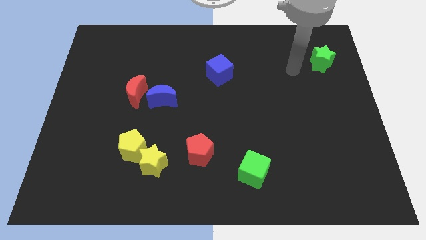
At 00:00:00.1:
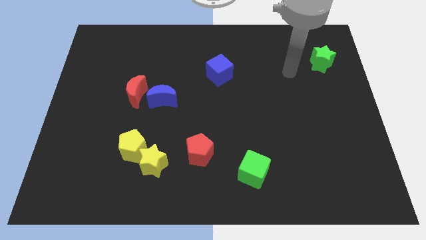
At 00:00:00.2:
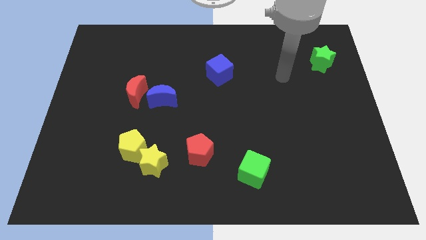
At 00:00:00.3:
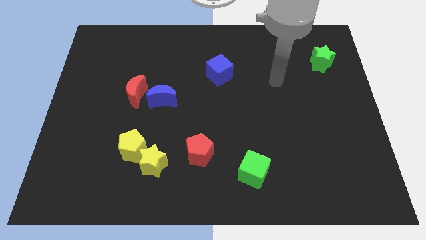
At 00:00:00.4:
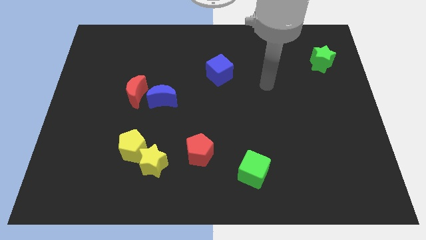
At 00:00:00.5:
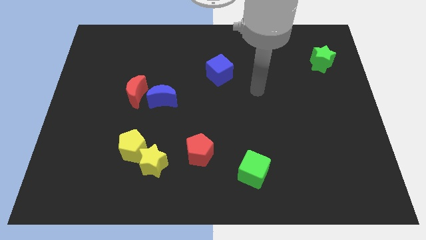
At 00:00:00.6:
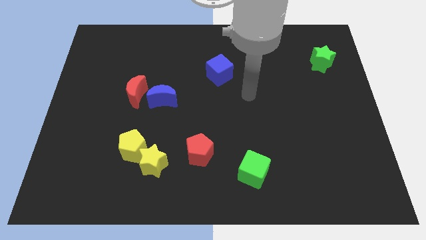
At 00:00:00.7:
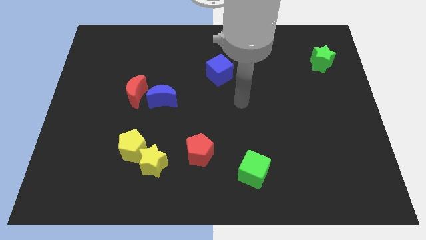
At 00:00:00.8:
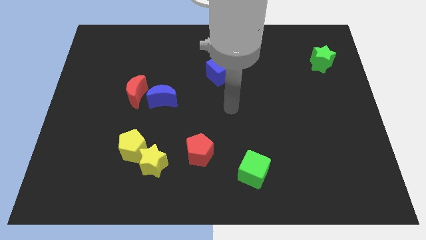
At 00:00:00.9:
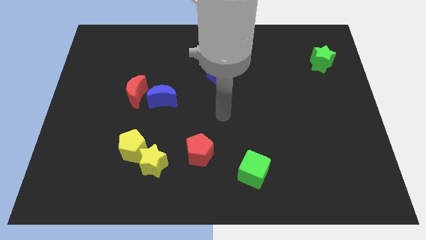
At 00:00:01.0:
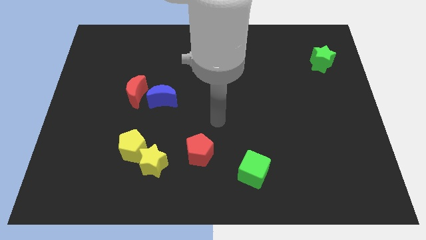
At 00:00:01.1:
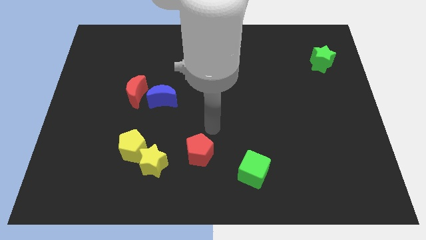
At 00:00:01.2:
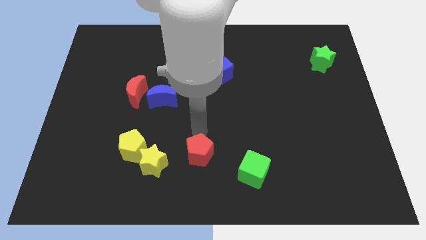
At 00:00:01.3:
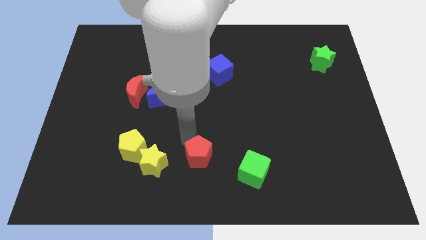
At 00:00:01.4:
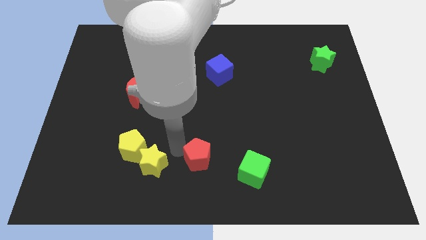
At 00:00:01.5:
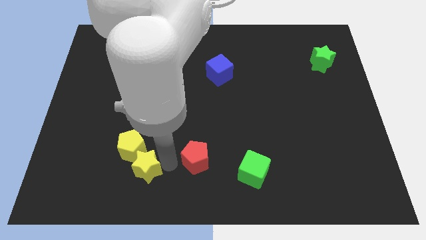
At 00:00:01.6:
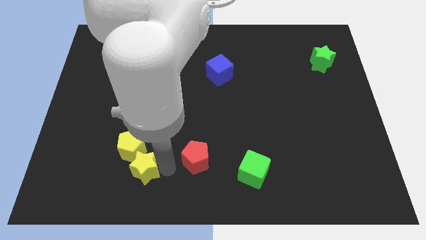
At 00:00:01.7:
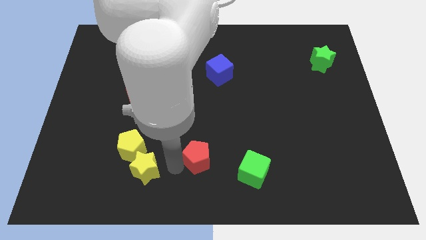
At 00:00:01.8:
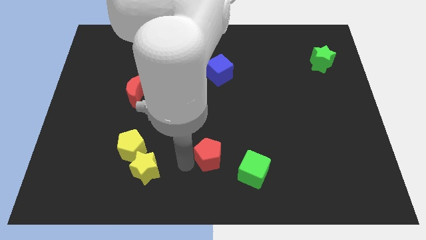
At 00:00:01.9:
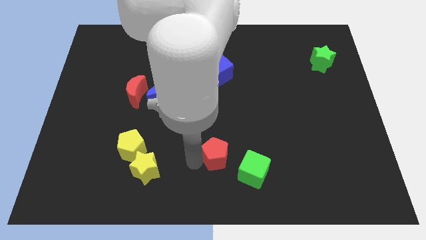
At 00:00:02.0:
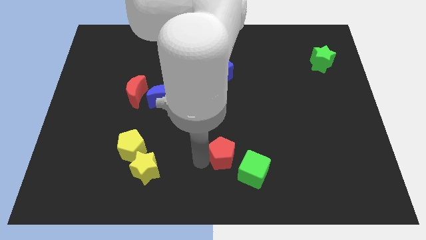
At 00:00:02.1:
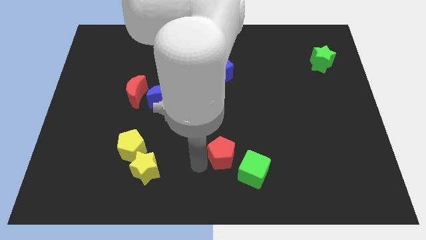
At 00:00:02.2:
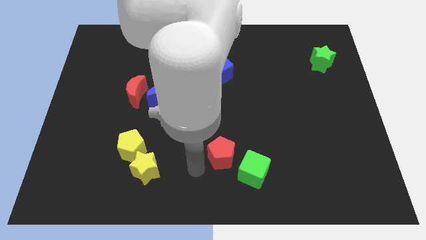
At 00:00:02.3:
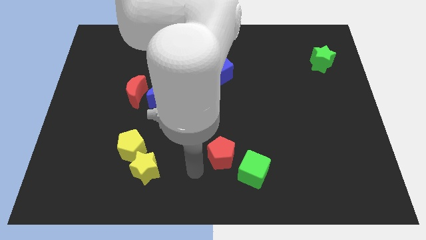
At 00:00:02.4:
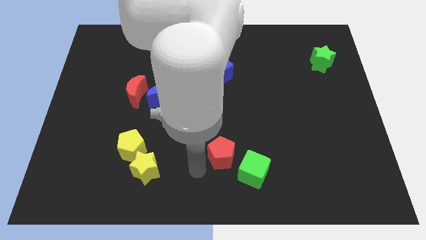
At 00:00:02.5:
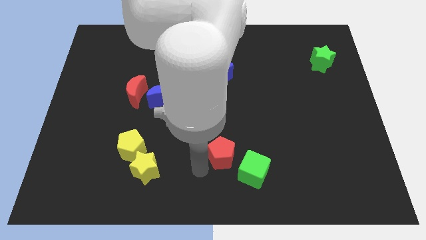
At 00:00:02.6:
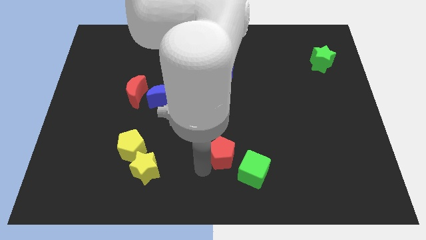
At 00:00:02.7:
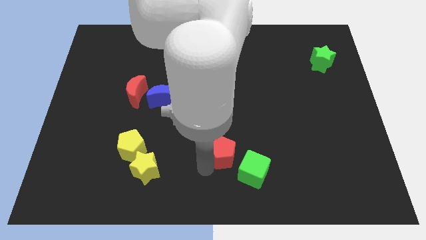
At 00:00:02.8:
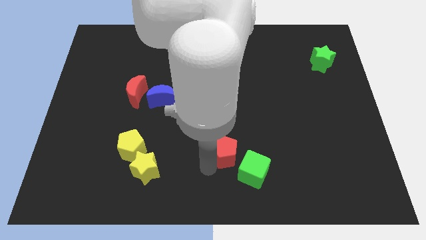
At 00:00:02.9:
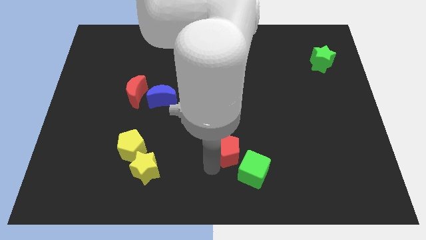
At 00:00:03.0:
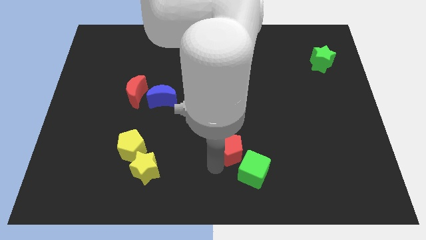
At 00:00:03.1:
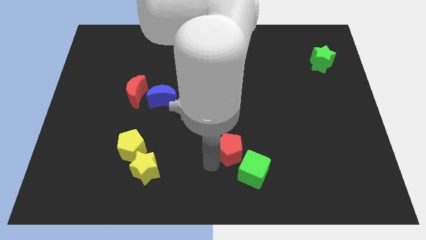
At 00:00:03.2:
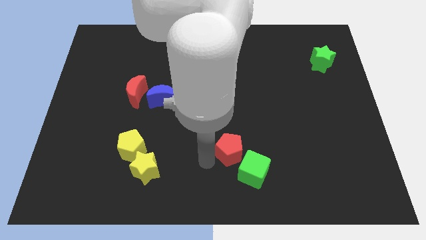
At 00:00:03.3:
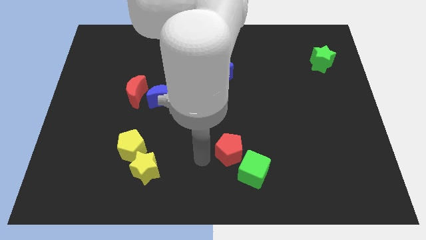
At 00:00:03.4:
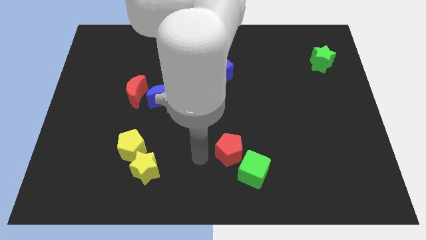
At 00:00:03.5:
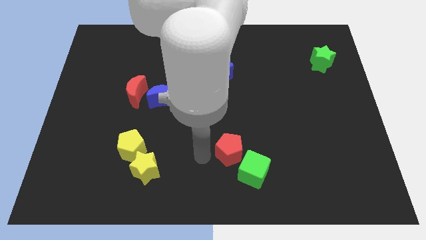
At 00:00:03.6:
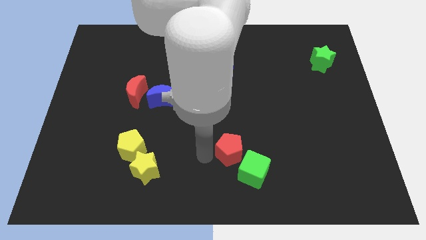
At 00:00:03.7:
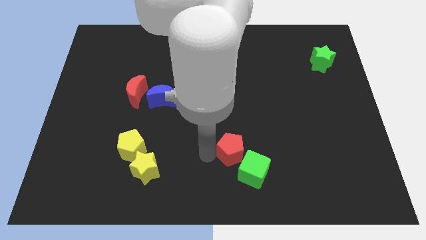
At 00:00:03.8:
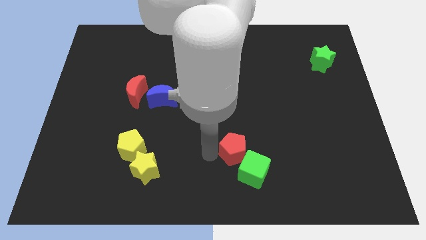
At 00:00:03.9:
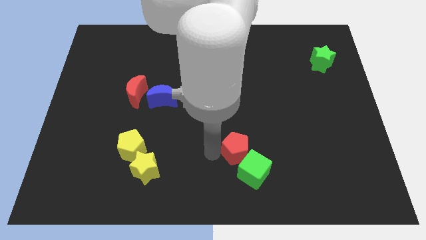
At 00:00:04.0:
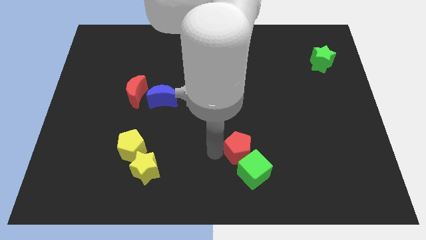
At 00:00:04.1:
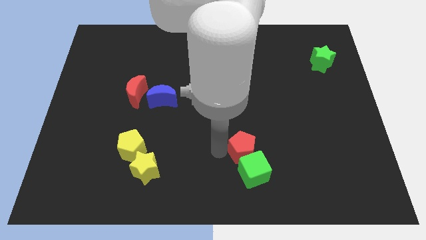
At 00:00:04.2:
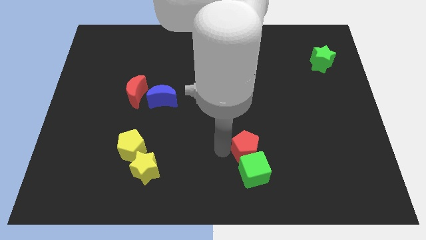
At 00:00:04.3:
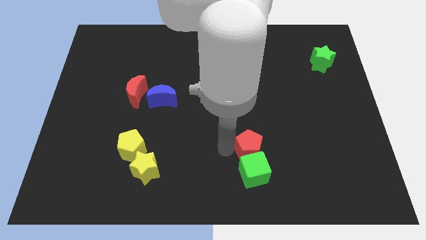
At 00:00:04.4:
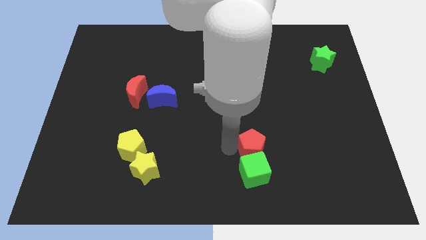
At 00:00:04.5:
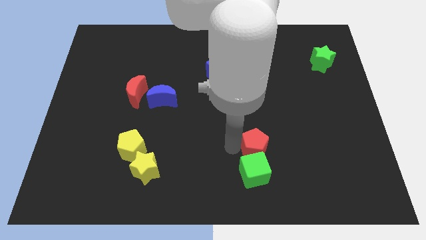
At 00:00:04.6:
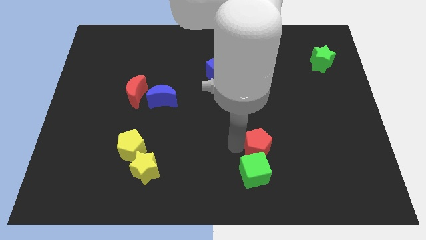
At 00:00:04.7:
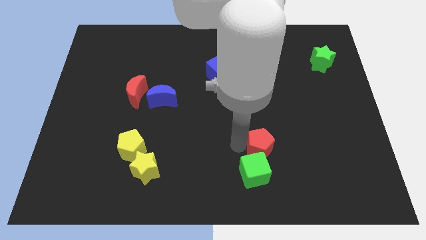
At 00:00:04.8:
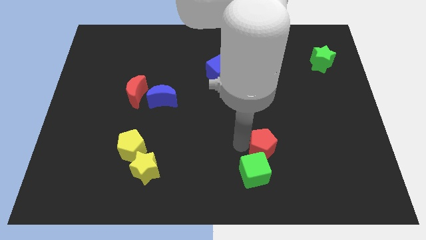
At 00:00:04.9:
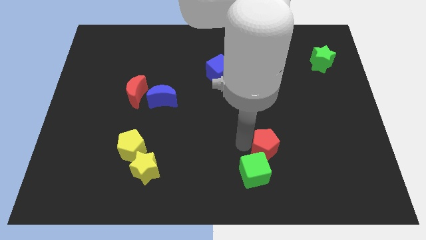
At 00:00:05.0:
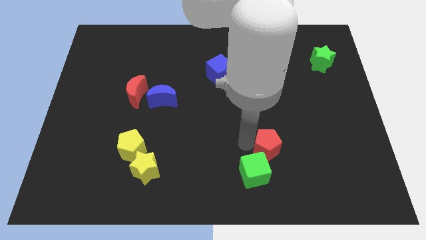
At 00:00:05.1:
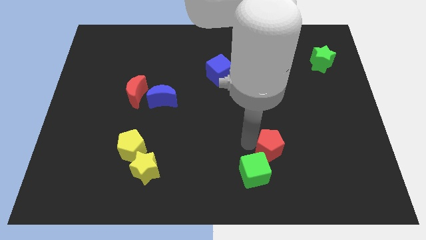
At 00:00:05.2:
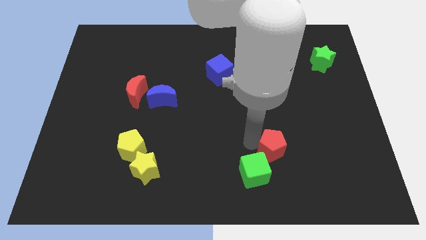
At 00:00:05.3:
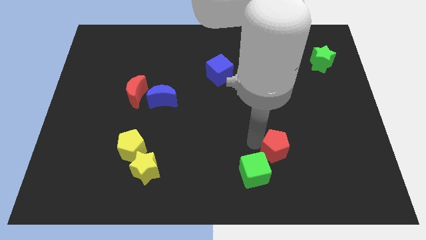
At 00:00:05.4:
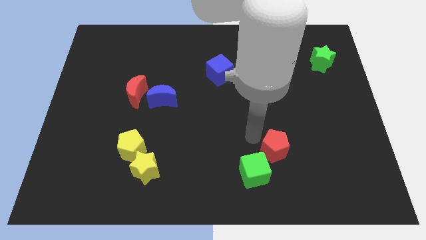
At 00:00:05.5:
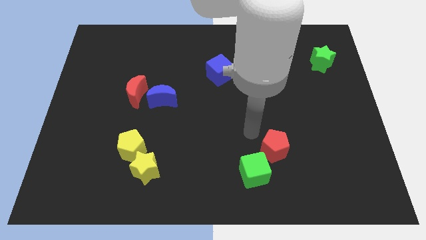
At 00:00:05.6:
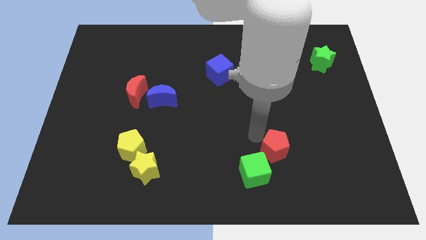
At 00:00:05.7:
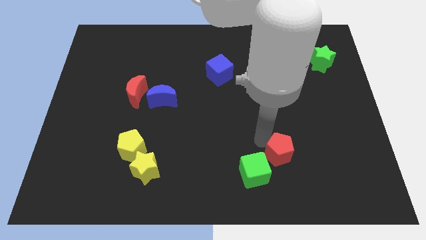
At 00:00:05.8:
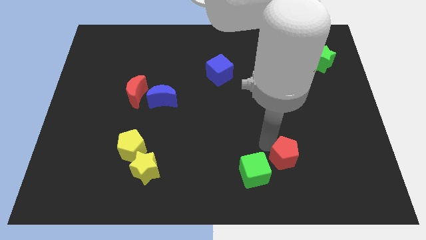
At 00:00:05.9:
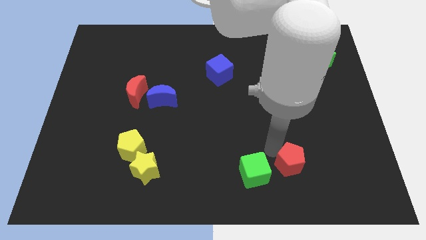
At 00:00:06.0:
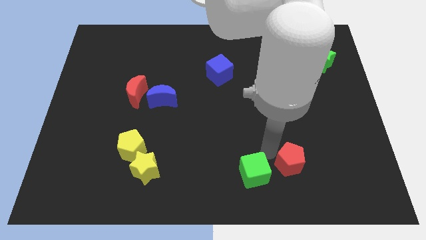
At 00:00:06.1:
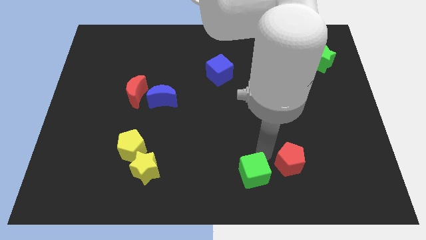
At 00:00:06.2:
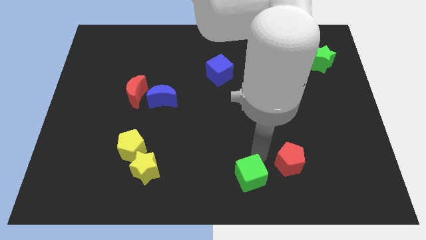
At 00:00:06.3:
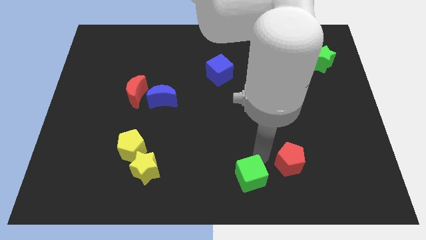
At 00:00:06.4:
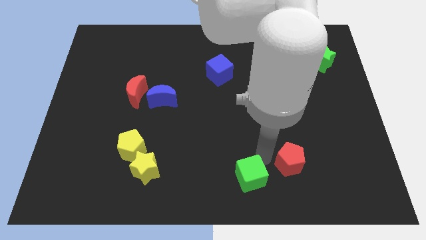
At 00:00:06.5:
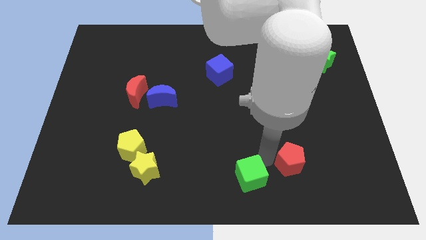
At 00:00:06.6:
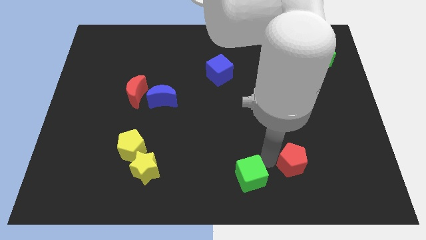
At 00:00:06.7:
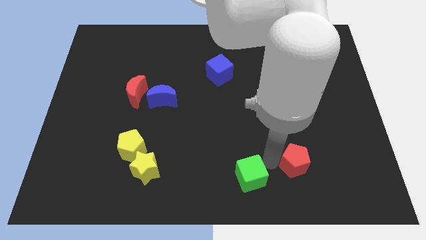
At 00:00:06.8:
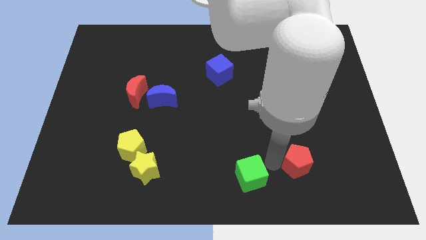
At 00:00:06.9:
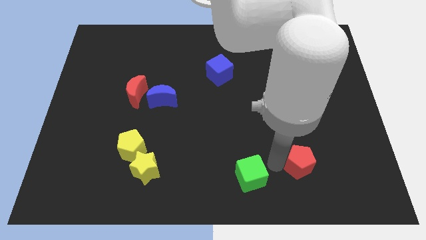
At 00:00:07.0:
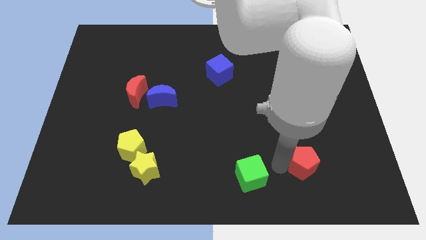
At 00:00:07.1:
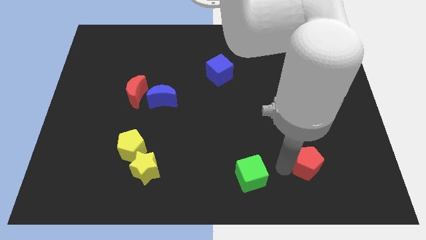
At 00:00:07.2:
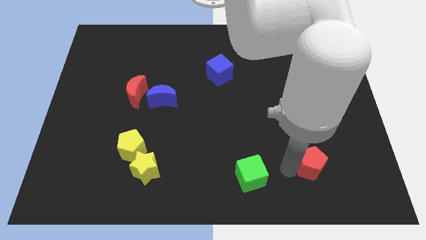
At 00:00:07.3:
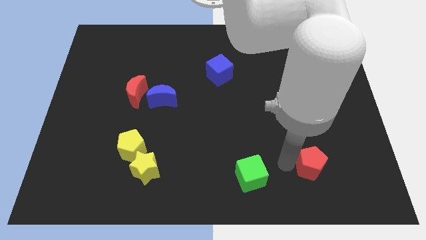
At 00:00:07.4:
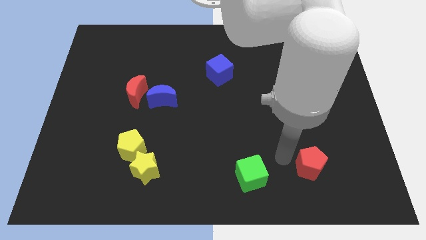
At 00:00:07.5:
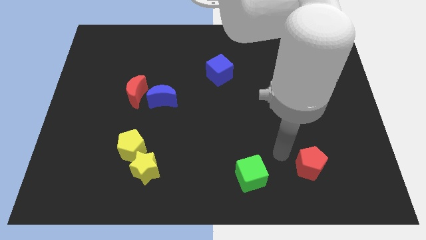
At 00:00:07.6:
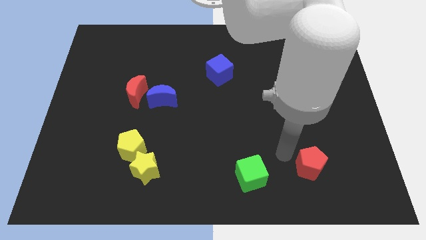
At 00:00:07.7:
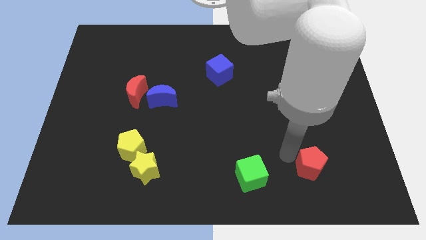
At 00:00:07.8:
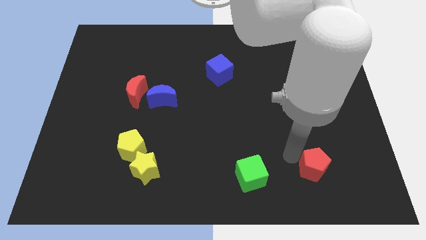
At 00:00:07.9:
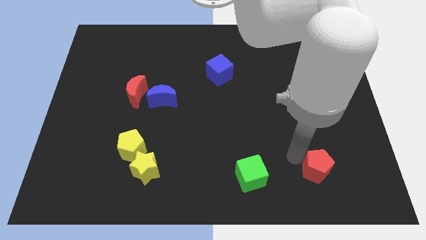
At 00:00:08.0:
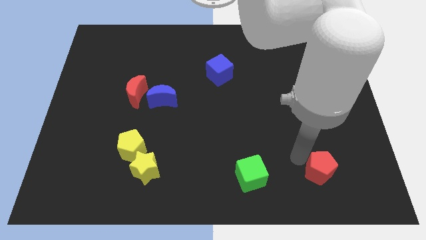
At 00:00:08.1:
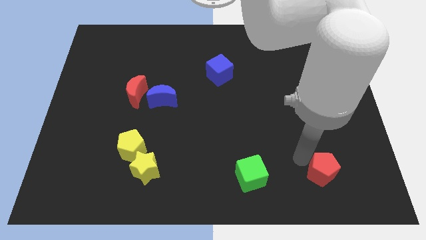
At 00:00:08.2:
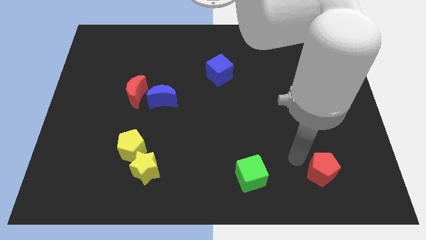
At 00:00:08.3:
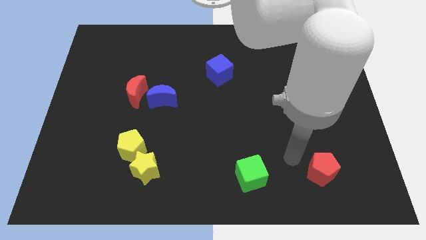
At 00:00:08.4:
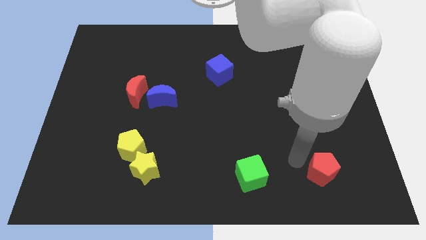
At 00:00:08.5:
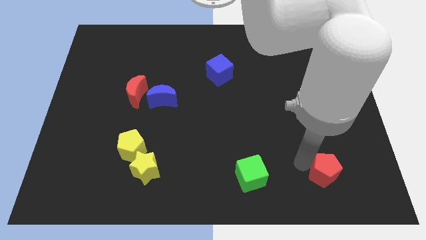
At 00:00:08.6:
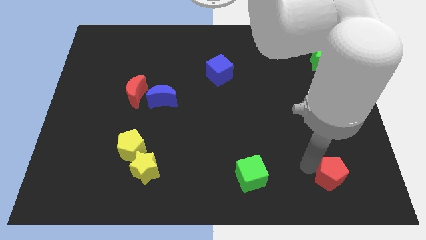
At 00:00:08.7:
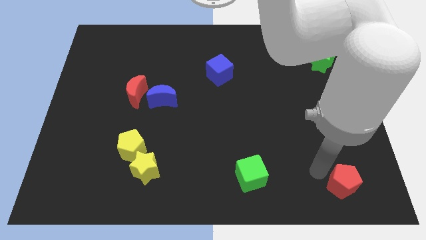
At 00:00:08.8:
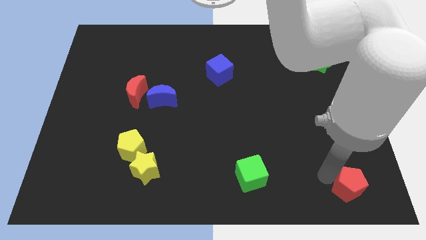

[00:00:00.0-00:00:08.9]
slide the red pentagon to the bottom right of the board
